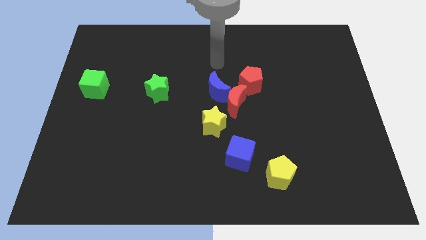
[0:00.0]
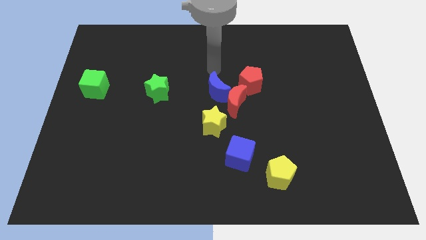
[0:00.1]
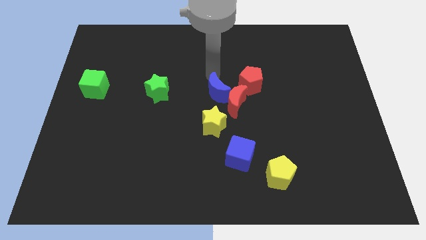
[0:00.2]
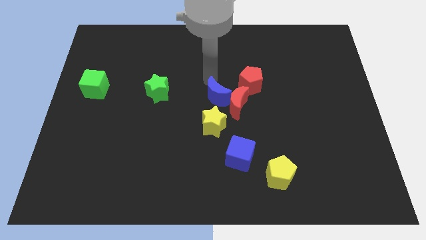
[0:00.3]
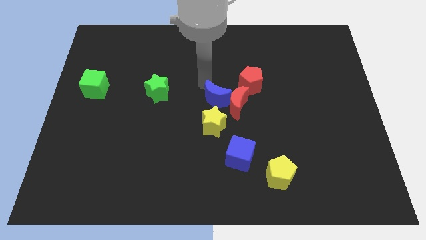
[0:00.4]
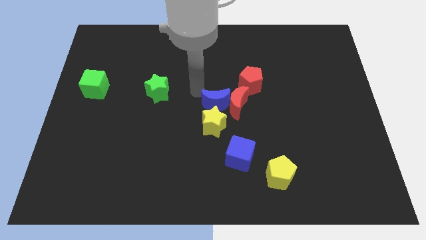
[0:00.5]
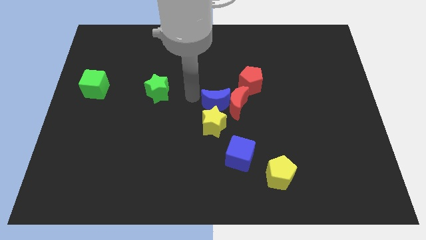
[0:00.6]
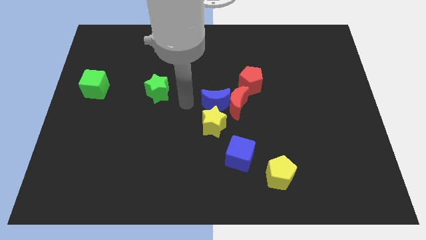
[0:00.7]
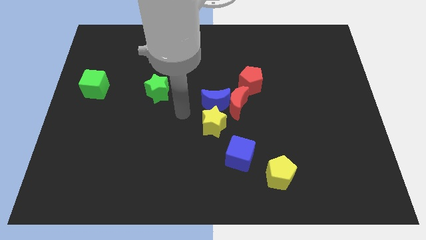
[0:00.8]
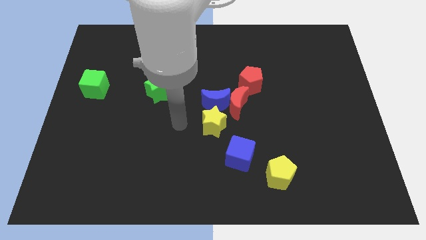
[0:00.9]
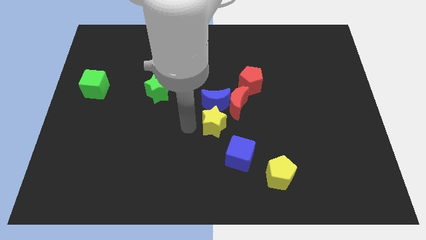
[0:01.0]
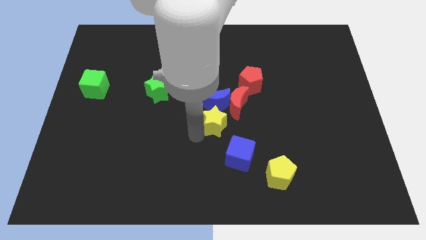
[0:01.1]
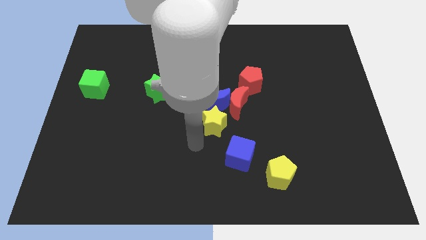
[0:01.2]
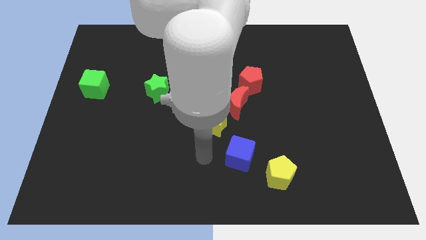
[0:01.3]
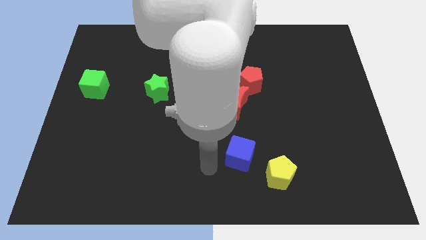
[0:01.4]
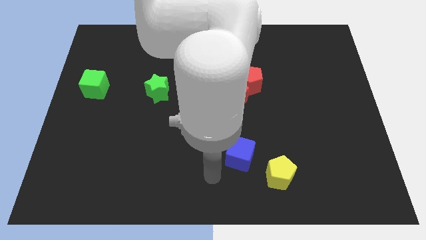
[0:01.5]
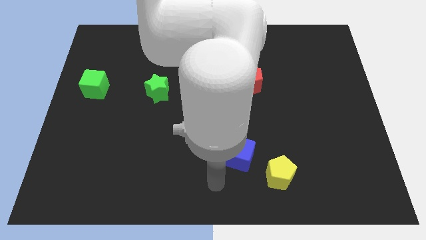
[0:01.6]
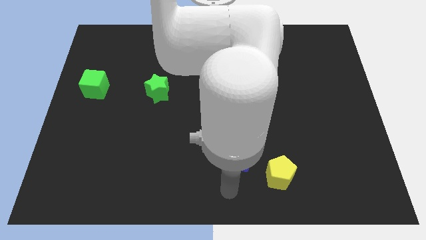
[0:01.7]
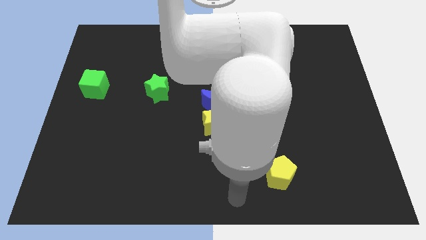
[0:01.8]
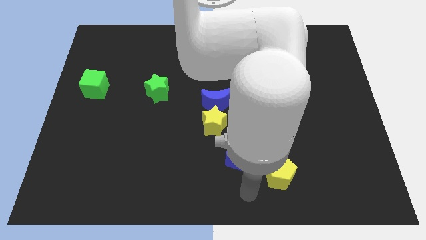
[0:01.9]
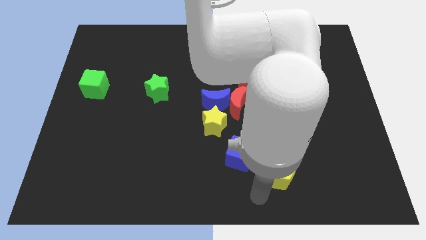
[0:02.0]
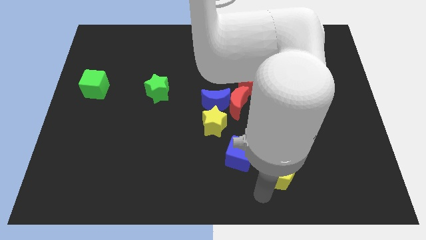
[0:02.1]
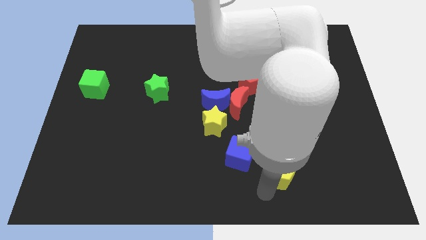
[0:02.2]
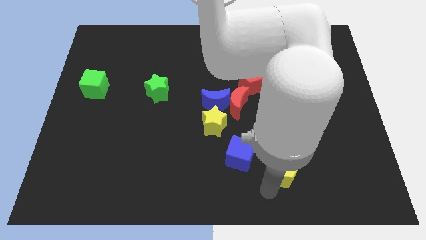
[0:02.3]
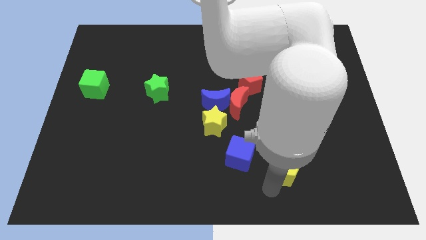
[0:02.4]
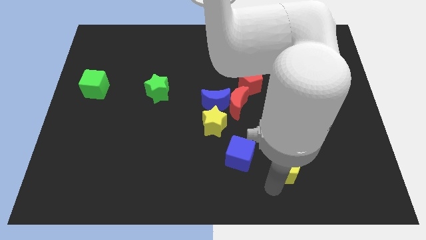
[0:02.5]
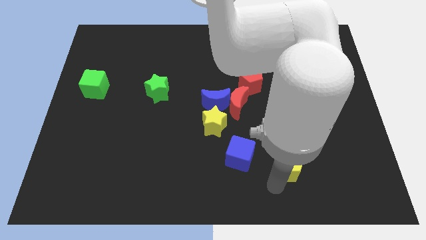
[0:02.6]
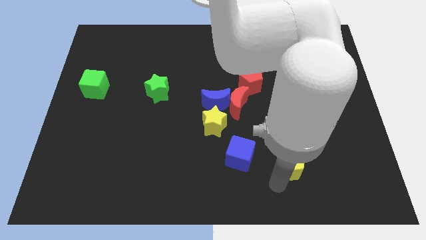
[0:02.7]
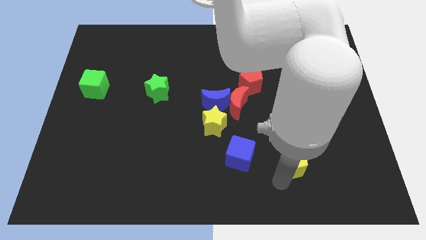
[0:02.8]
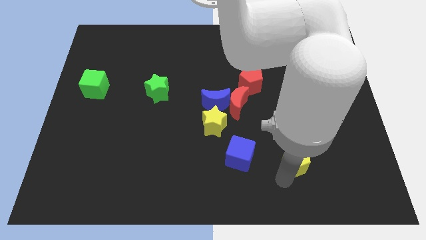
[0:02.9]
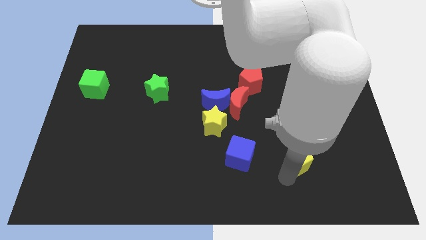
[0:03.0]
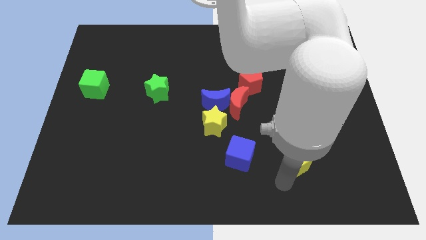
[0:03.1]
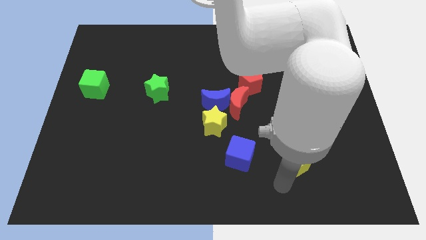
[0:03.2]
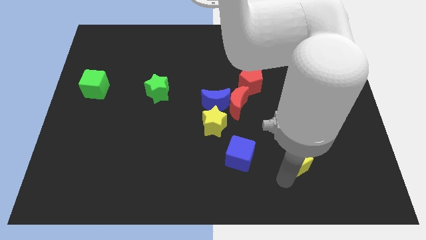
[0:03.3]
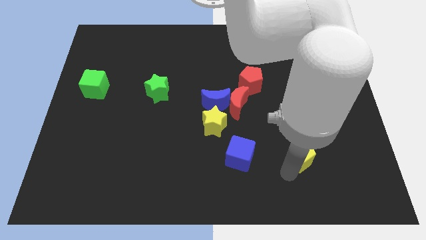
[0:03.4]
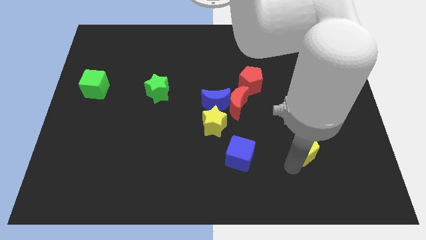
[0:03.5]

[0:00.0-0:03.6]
slide the yellow pentagon somewhat up and right diagonally

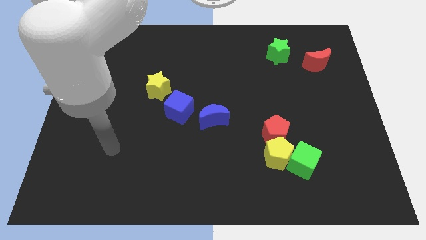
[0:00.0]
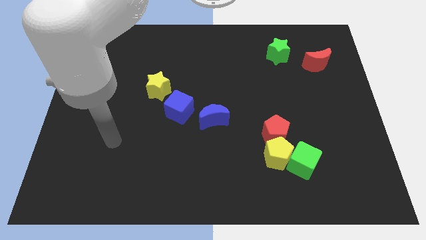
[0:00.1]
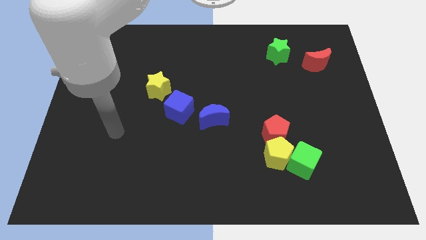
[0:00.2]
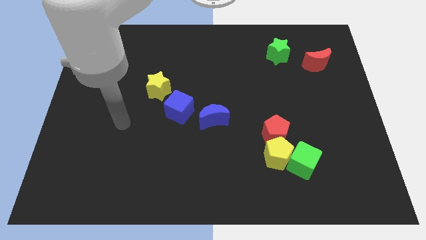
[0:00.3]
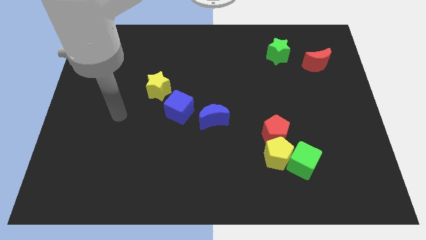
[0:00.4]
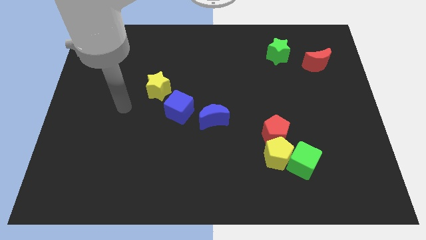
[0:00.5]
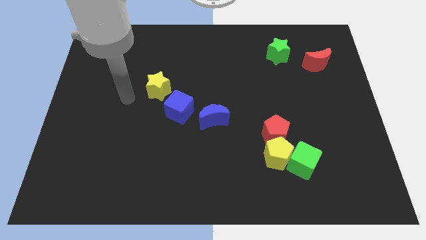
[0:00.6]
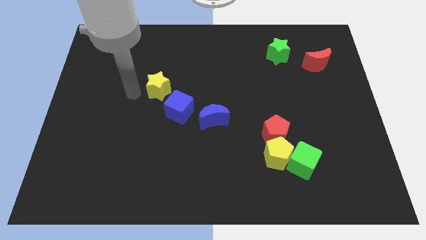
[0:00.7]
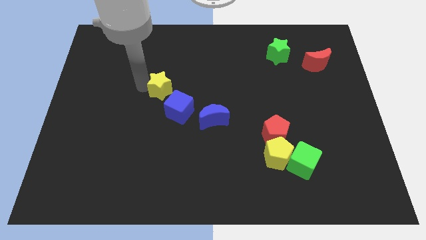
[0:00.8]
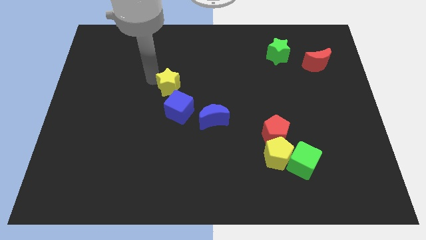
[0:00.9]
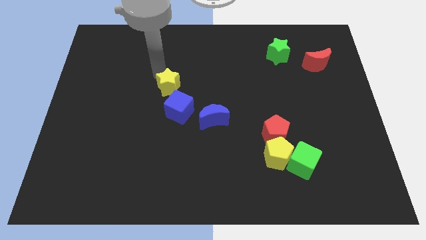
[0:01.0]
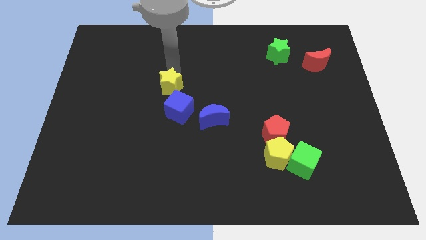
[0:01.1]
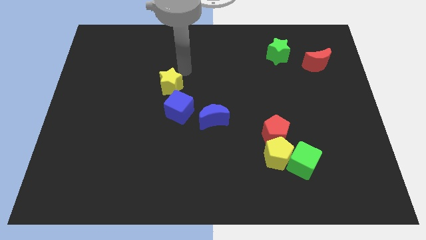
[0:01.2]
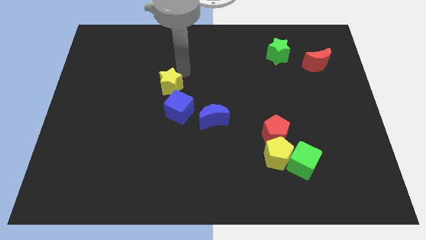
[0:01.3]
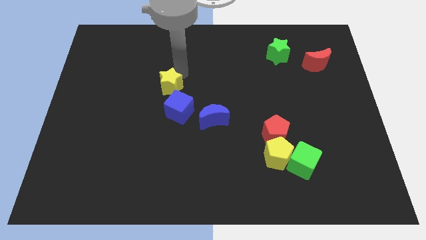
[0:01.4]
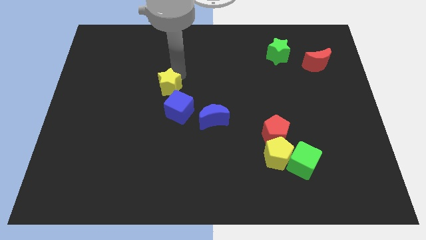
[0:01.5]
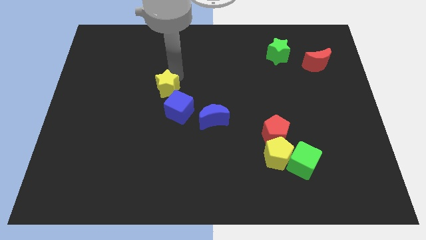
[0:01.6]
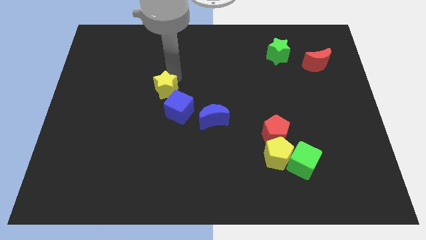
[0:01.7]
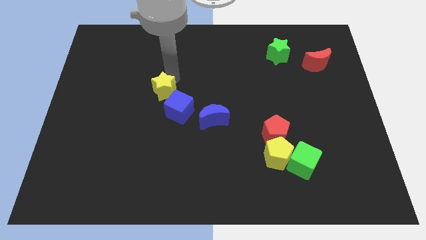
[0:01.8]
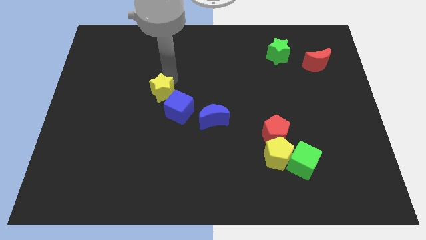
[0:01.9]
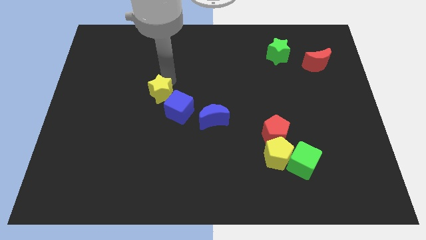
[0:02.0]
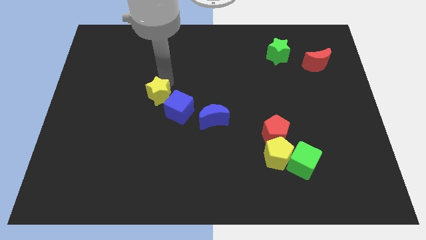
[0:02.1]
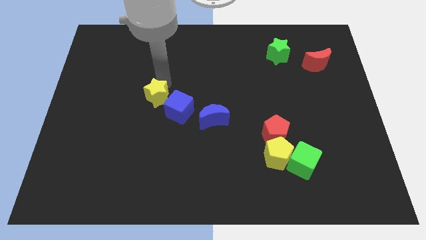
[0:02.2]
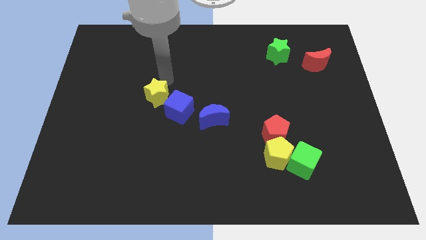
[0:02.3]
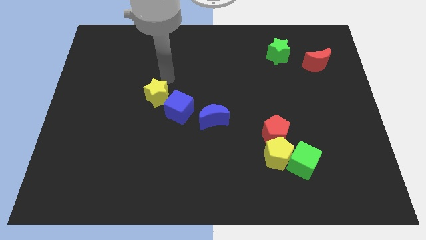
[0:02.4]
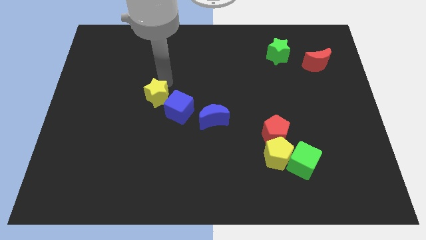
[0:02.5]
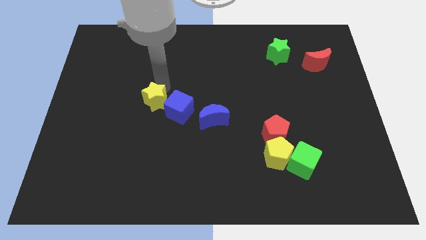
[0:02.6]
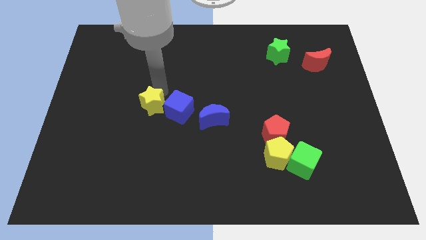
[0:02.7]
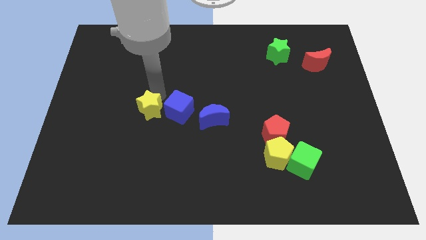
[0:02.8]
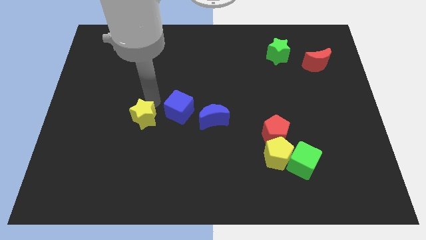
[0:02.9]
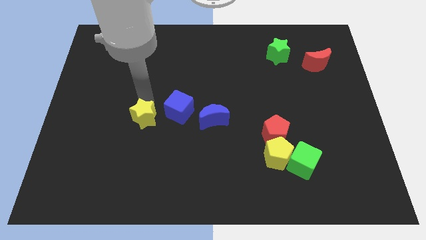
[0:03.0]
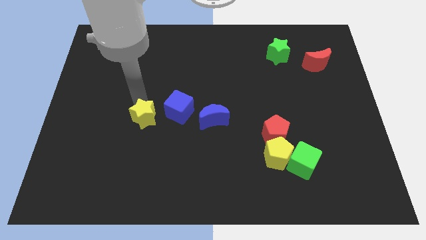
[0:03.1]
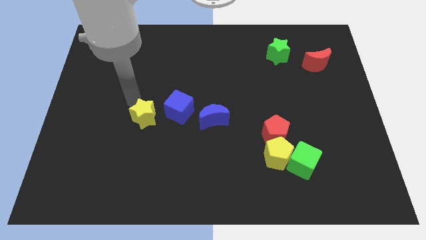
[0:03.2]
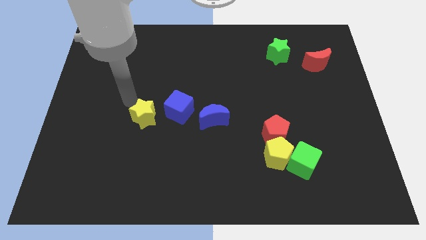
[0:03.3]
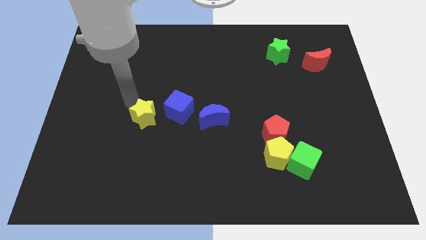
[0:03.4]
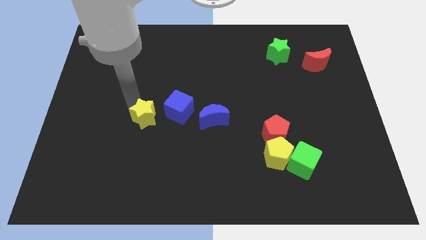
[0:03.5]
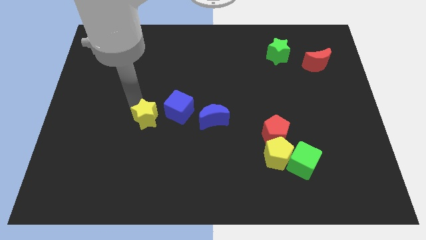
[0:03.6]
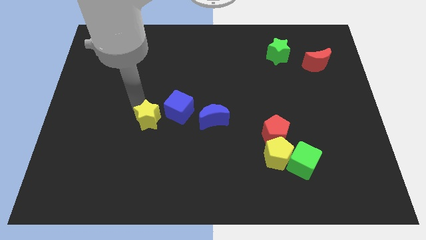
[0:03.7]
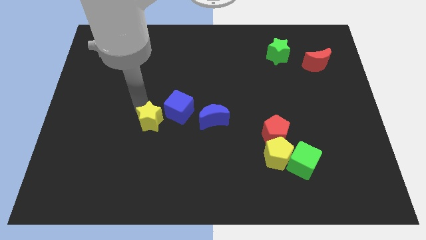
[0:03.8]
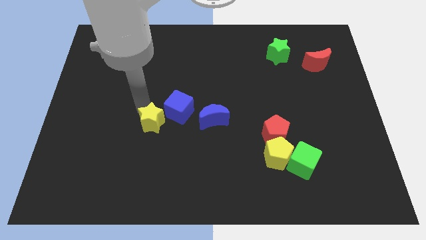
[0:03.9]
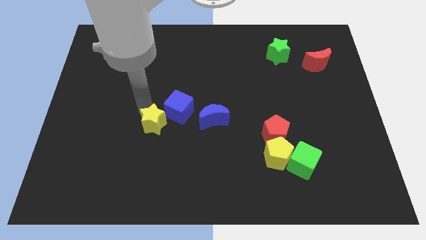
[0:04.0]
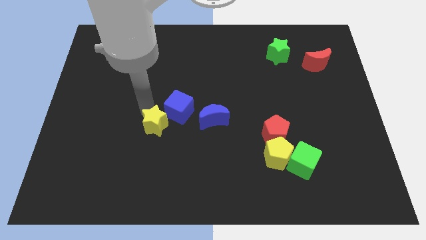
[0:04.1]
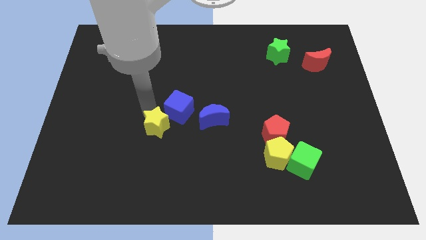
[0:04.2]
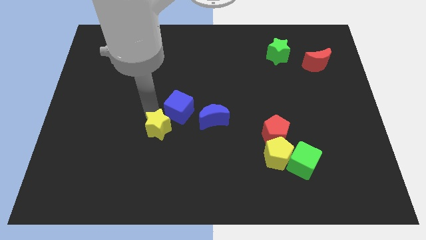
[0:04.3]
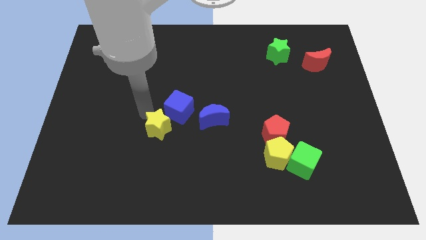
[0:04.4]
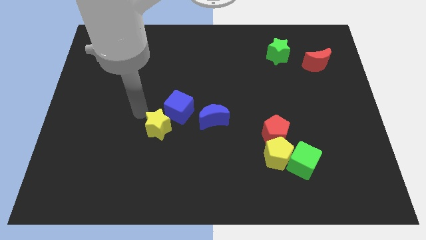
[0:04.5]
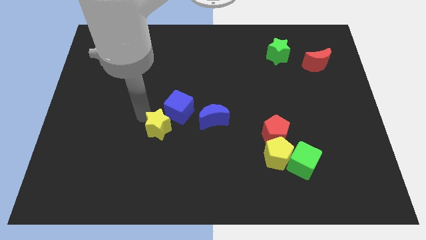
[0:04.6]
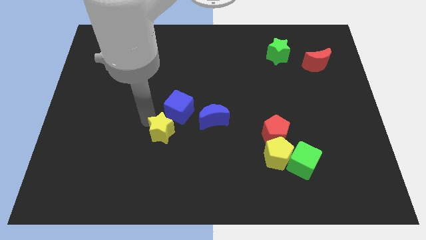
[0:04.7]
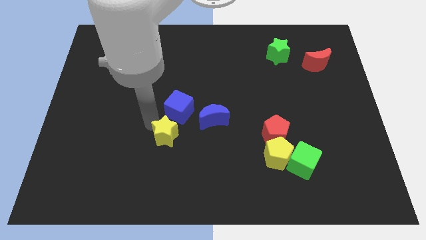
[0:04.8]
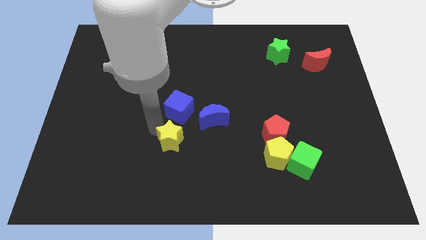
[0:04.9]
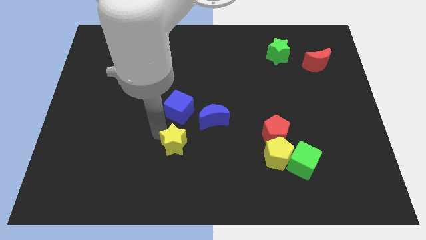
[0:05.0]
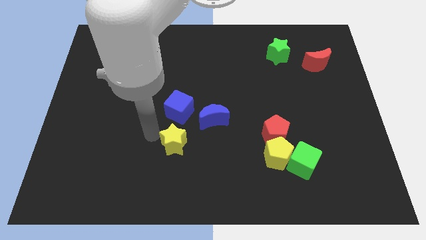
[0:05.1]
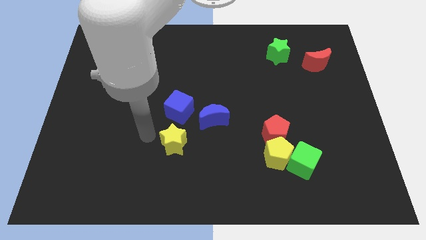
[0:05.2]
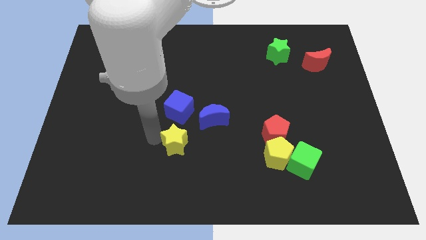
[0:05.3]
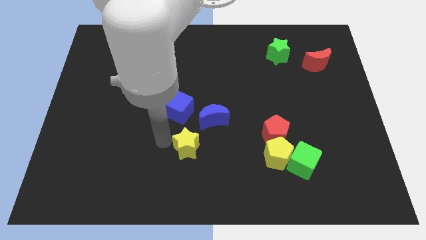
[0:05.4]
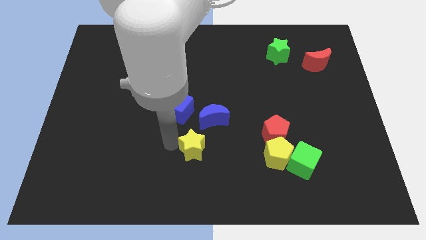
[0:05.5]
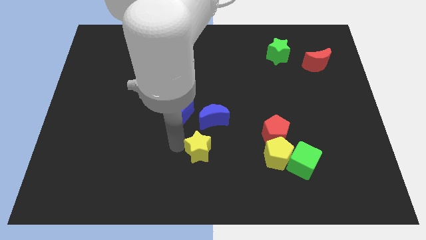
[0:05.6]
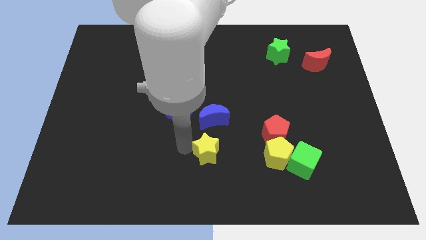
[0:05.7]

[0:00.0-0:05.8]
slide the yellow star downwards and then to the right
